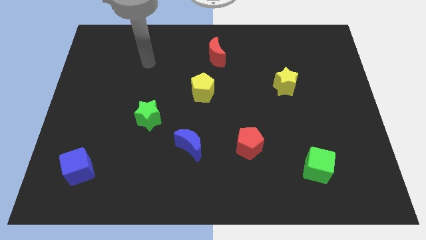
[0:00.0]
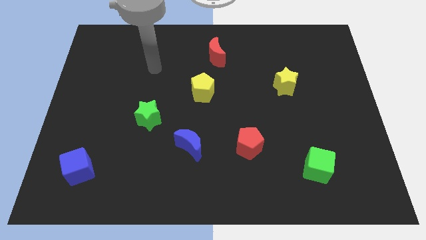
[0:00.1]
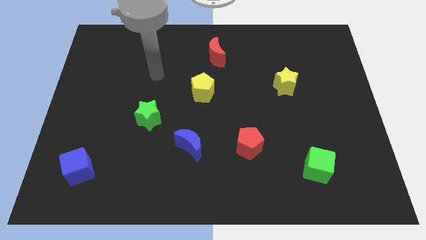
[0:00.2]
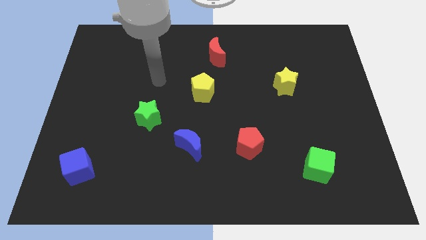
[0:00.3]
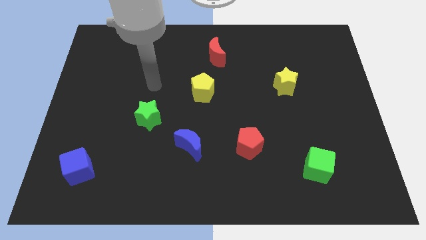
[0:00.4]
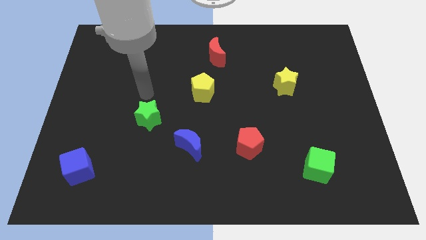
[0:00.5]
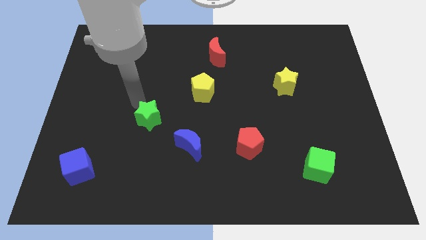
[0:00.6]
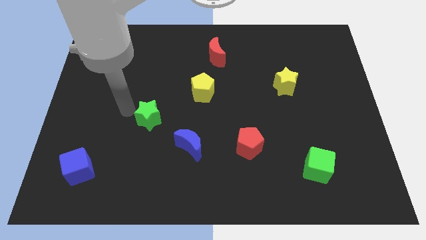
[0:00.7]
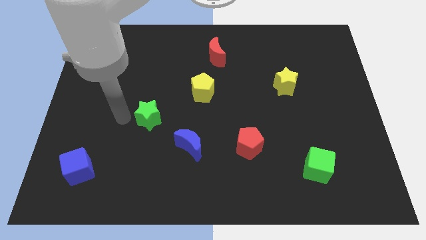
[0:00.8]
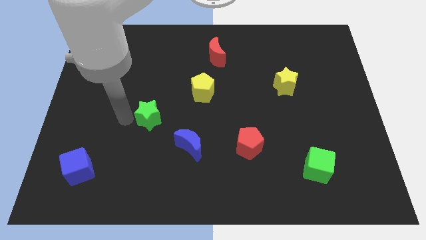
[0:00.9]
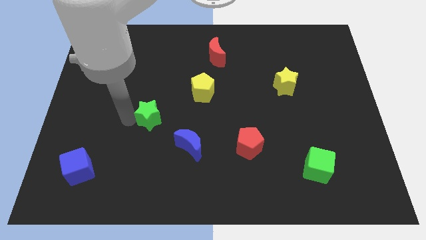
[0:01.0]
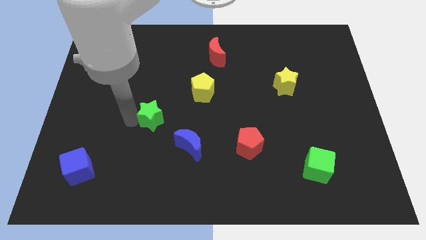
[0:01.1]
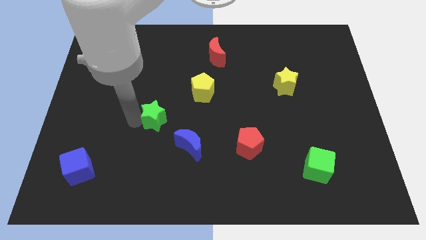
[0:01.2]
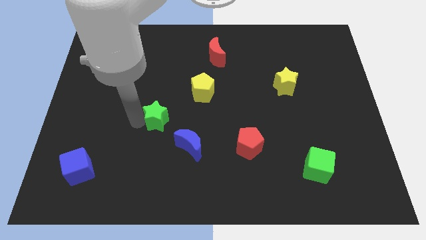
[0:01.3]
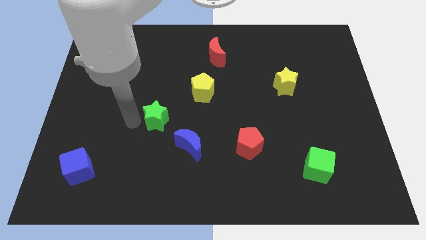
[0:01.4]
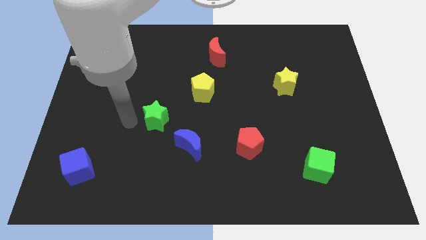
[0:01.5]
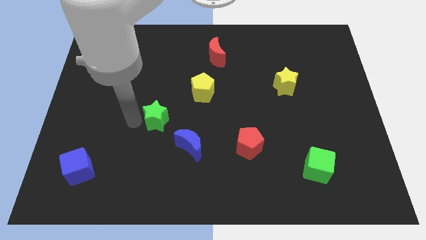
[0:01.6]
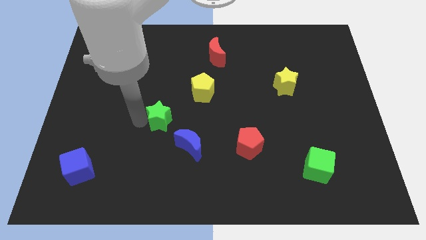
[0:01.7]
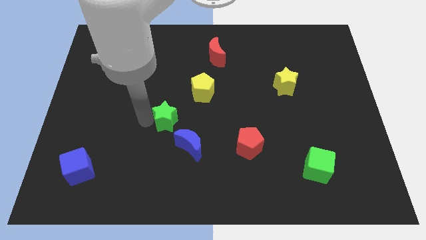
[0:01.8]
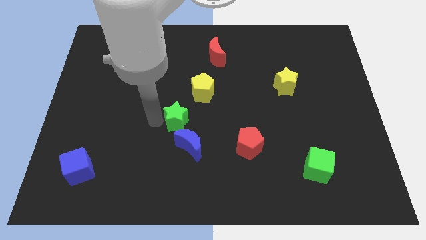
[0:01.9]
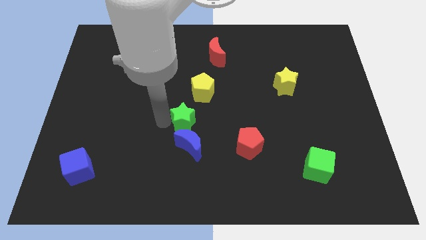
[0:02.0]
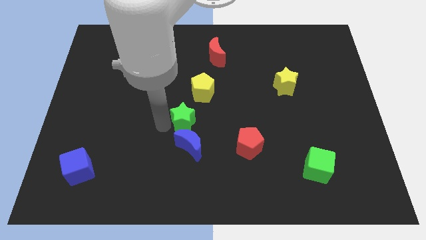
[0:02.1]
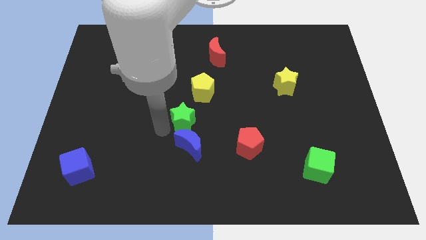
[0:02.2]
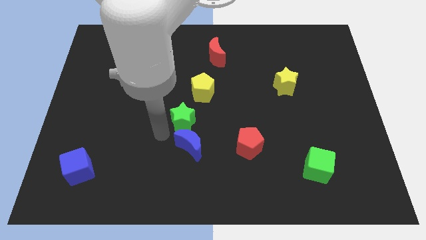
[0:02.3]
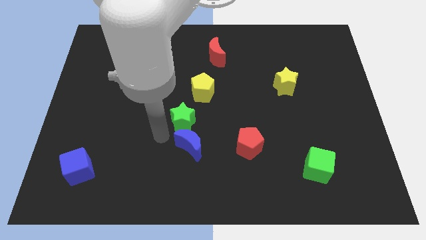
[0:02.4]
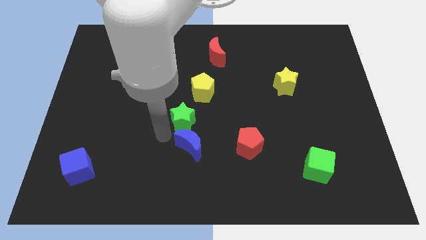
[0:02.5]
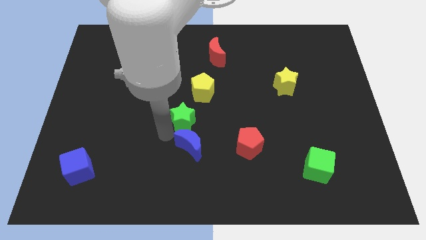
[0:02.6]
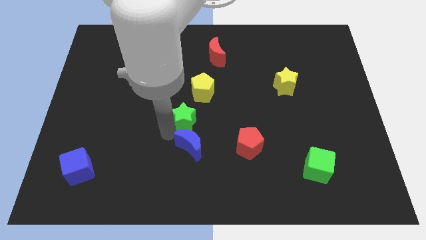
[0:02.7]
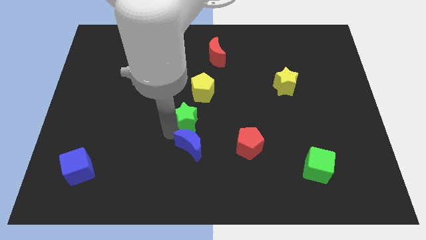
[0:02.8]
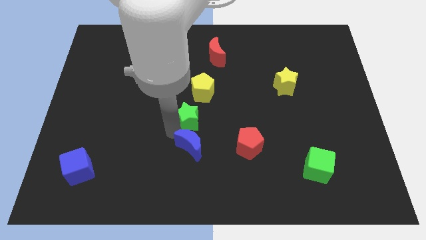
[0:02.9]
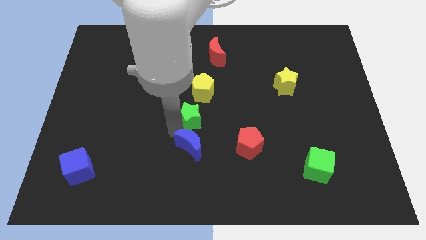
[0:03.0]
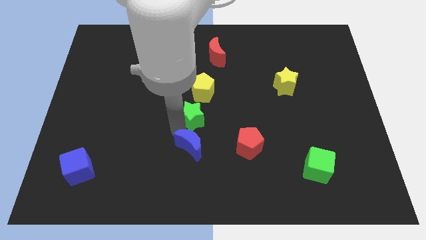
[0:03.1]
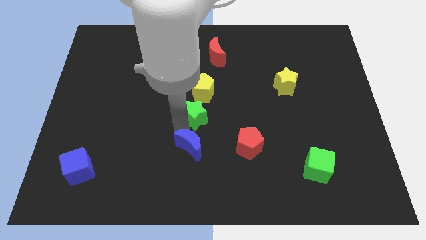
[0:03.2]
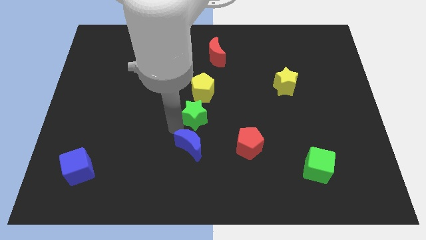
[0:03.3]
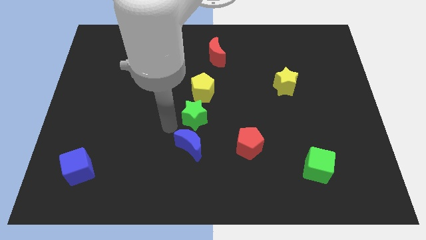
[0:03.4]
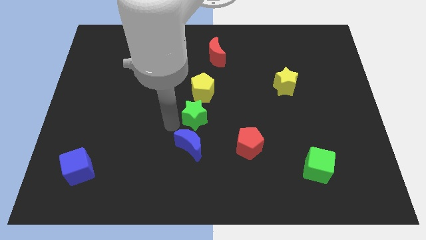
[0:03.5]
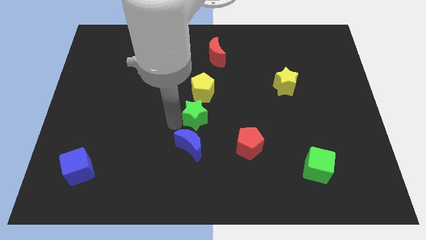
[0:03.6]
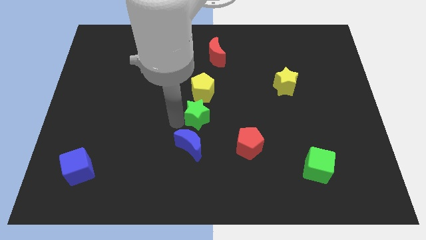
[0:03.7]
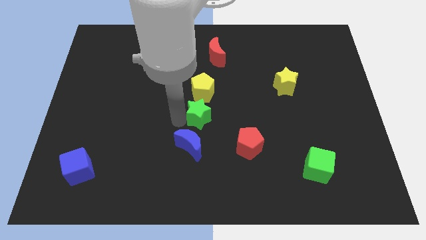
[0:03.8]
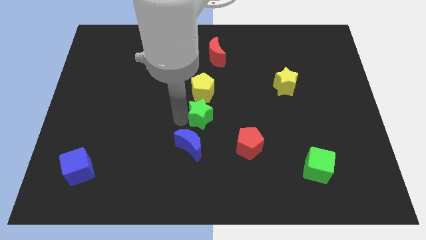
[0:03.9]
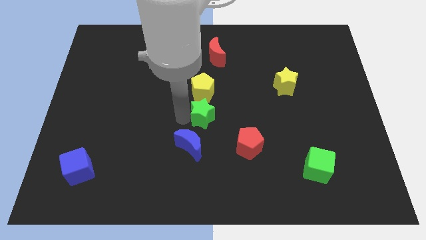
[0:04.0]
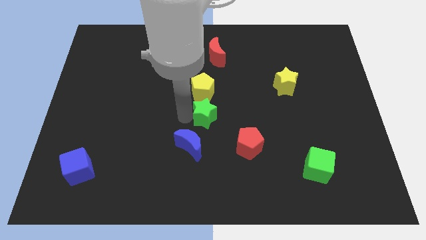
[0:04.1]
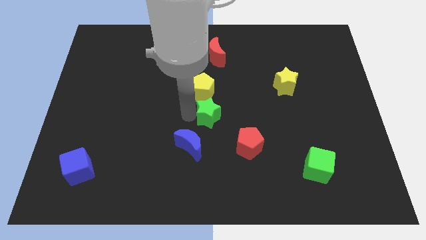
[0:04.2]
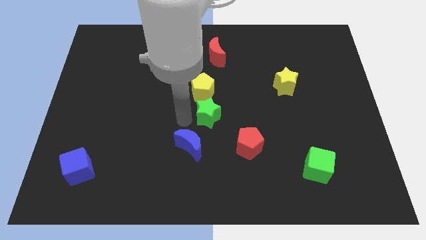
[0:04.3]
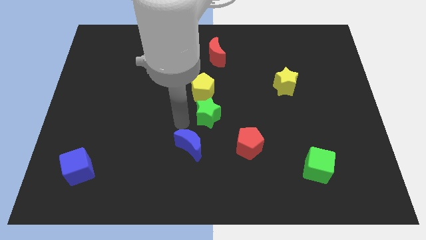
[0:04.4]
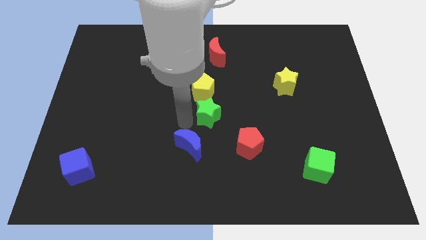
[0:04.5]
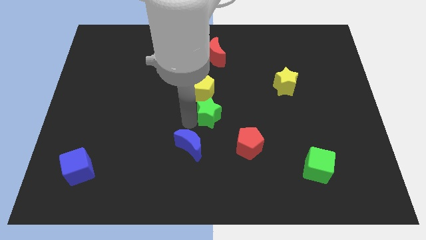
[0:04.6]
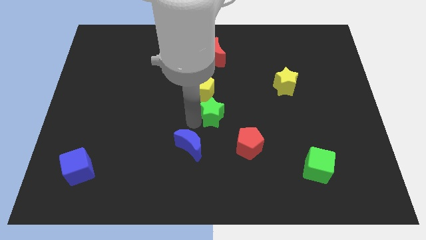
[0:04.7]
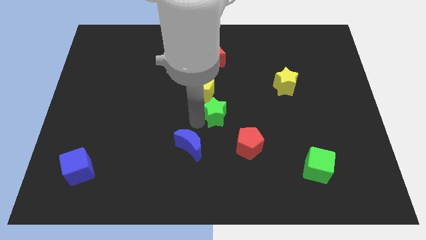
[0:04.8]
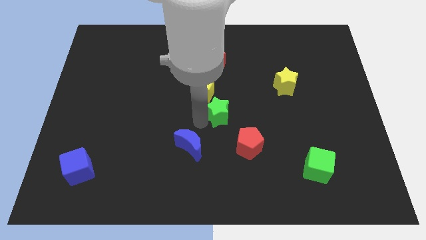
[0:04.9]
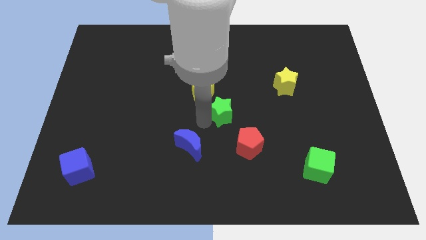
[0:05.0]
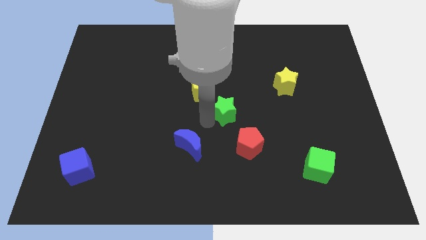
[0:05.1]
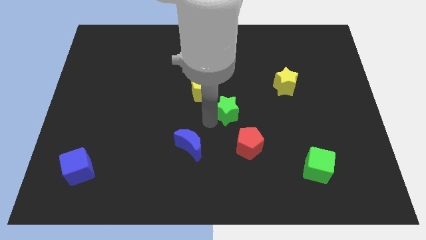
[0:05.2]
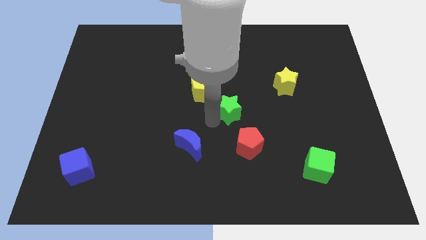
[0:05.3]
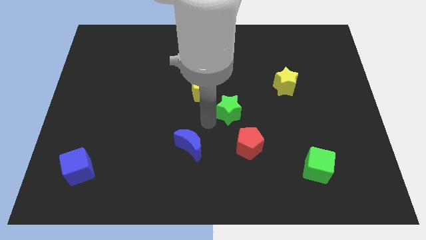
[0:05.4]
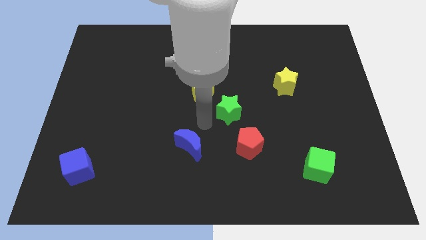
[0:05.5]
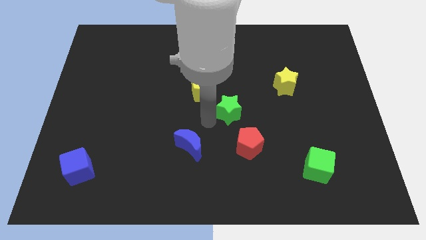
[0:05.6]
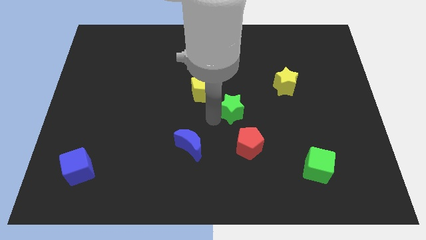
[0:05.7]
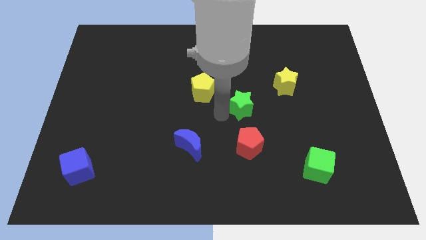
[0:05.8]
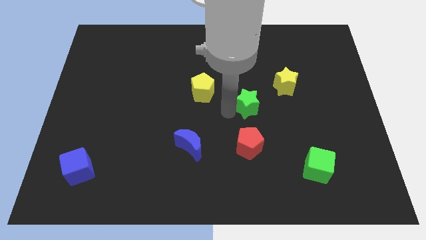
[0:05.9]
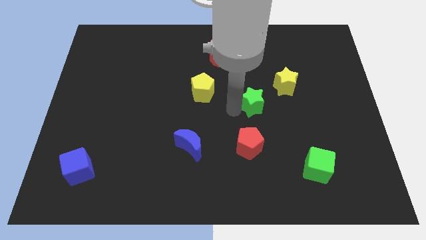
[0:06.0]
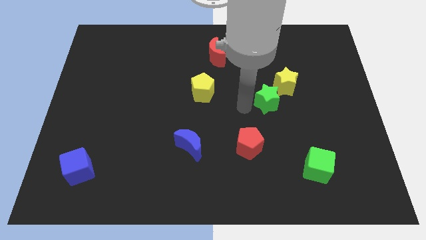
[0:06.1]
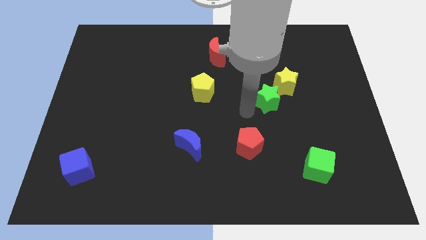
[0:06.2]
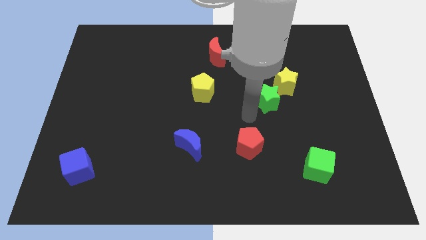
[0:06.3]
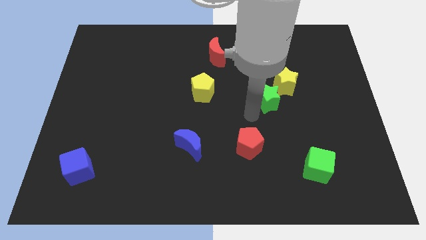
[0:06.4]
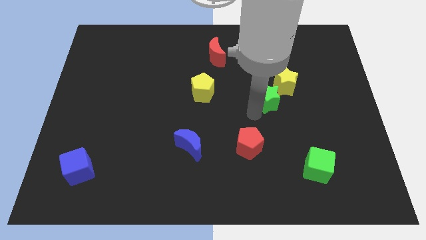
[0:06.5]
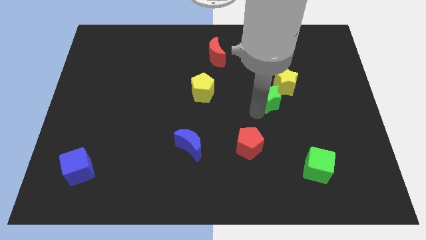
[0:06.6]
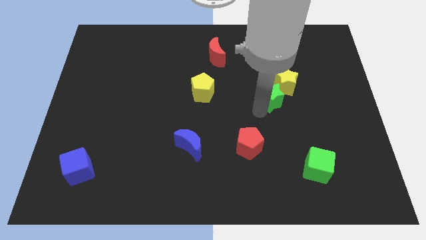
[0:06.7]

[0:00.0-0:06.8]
put the green star towards the yellow star
